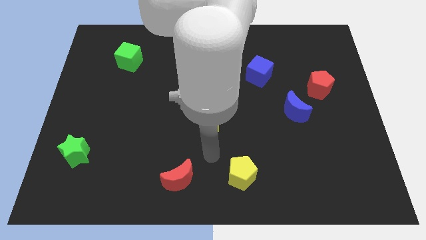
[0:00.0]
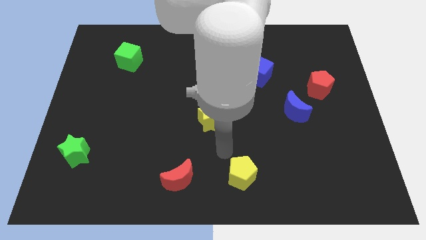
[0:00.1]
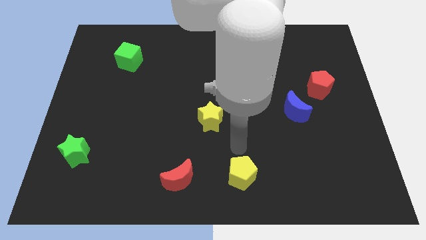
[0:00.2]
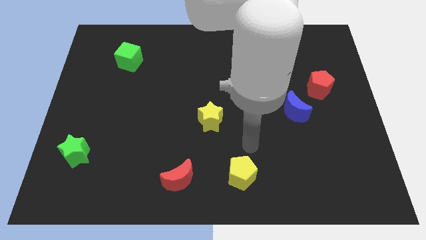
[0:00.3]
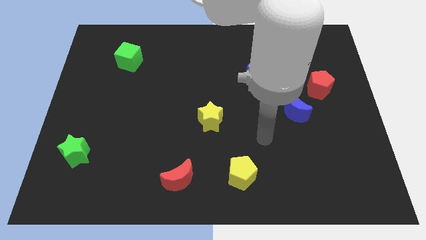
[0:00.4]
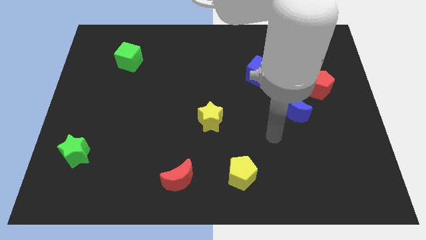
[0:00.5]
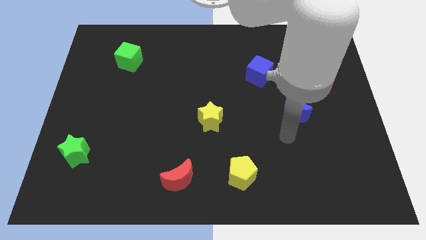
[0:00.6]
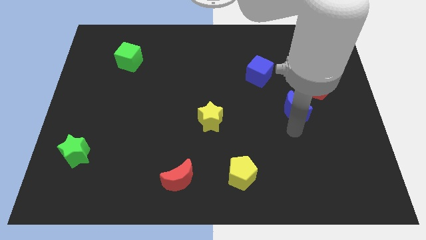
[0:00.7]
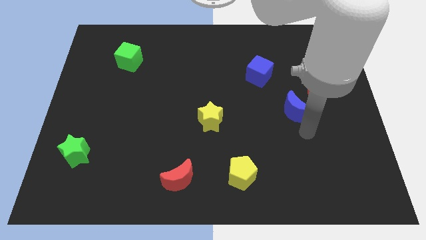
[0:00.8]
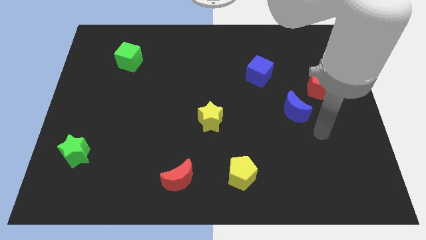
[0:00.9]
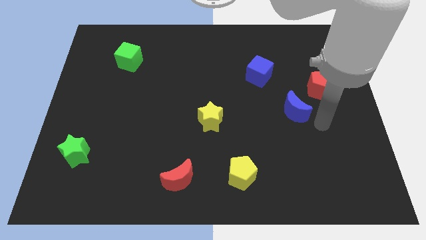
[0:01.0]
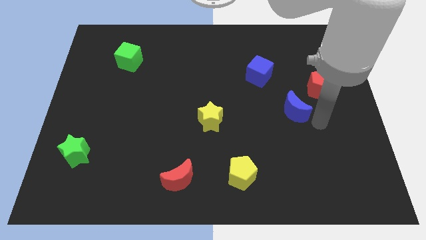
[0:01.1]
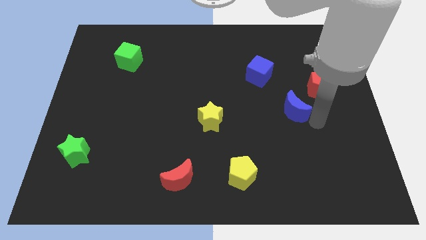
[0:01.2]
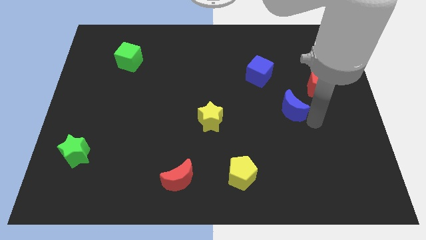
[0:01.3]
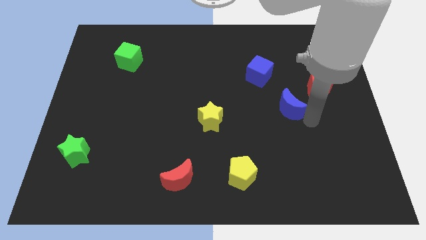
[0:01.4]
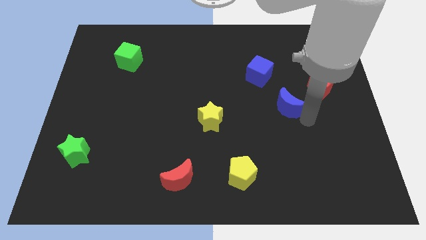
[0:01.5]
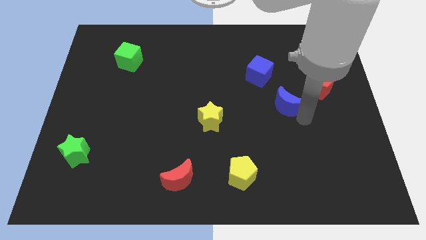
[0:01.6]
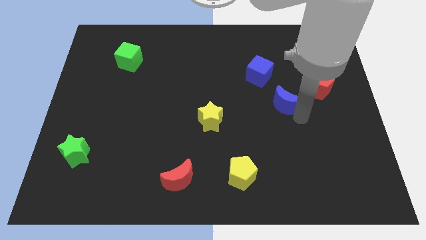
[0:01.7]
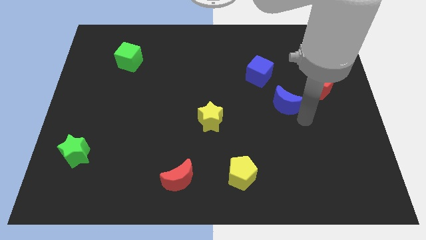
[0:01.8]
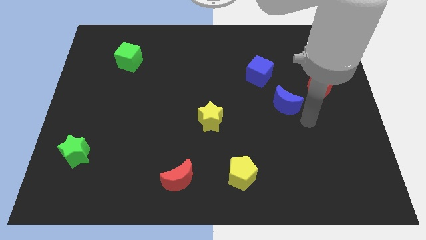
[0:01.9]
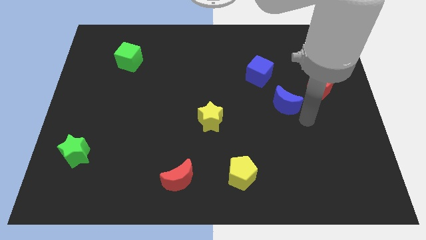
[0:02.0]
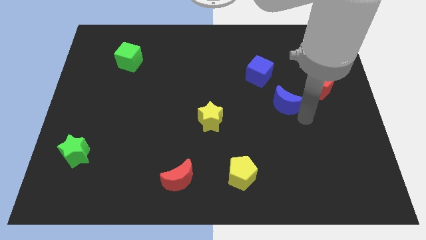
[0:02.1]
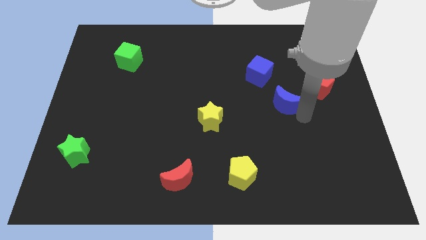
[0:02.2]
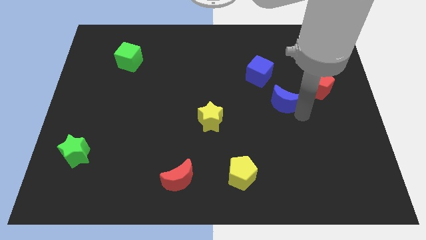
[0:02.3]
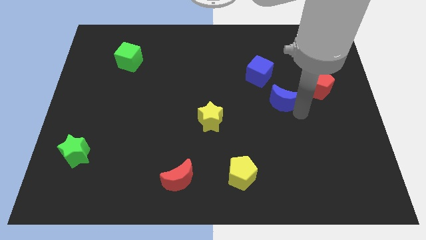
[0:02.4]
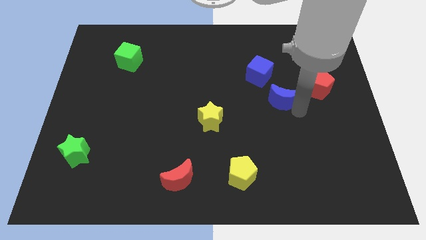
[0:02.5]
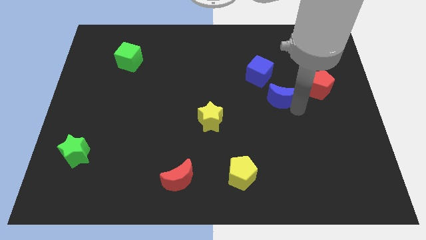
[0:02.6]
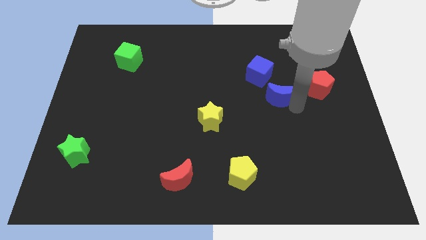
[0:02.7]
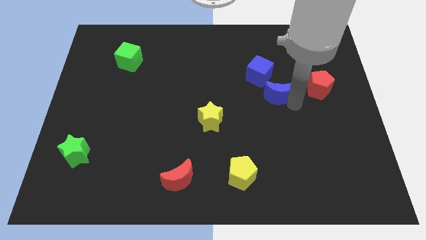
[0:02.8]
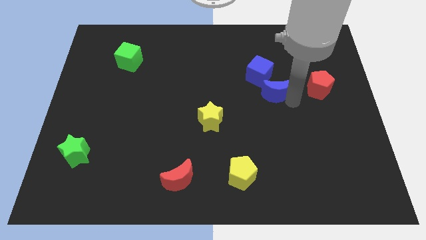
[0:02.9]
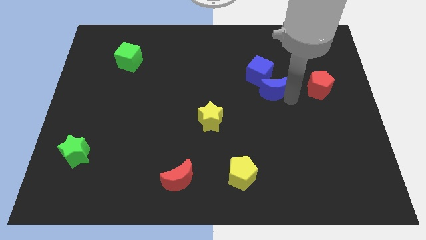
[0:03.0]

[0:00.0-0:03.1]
slightly slide the blue moon diagonally up and left

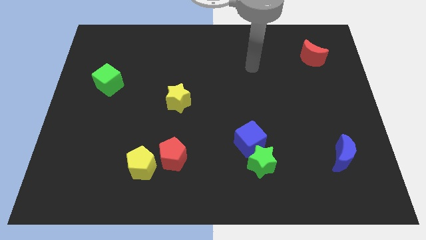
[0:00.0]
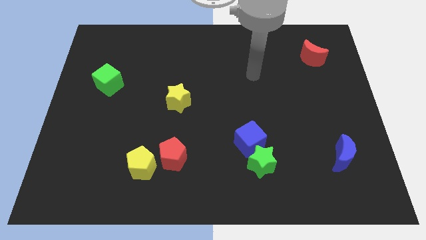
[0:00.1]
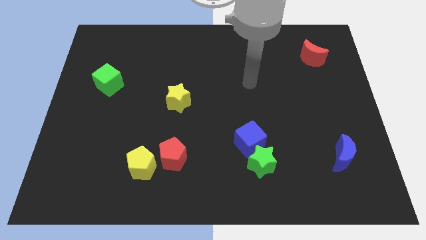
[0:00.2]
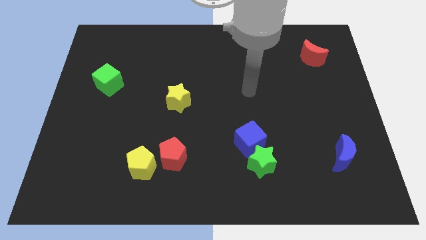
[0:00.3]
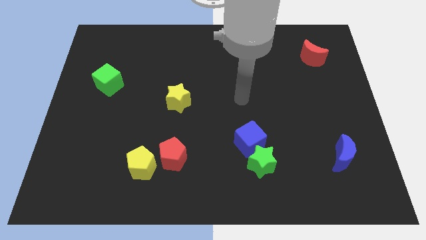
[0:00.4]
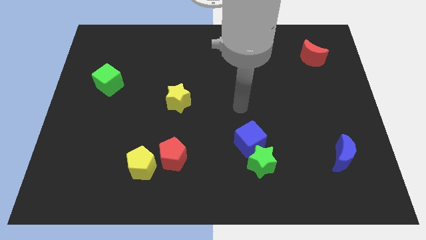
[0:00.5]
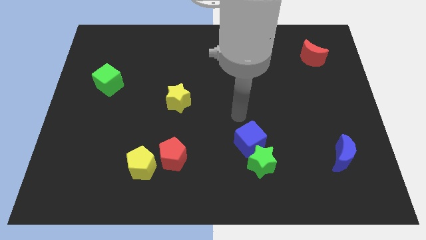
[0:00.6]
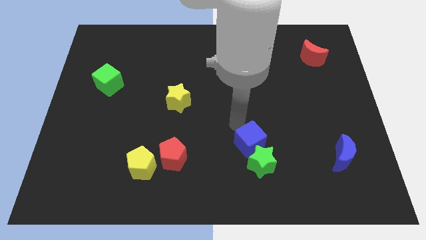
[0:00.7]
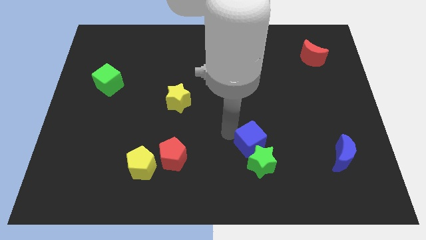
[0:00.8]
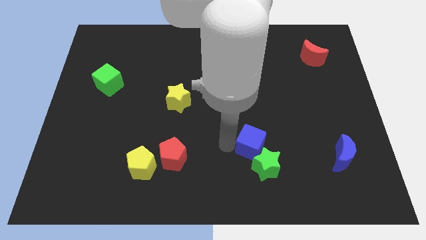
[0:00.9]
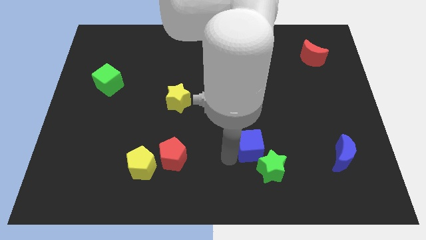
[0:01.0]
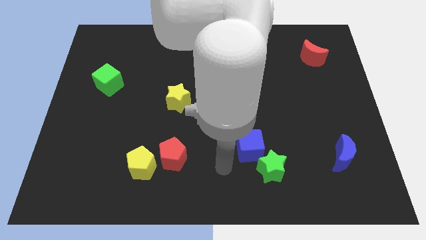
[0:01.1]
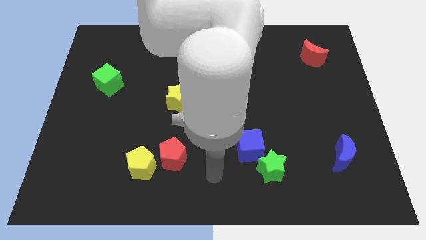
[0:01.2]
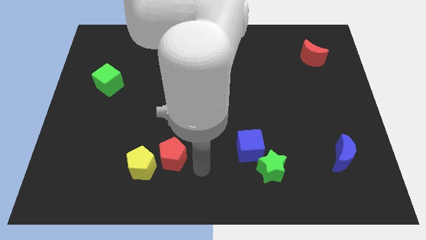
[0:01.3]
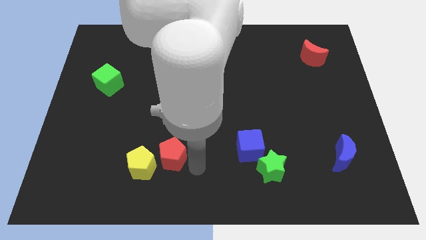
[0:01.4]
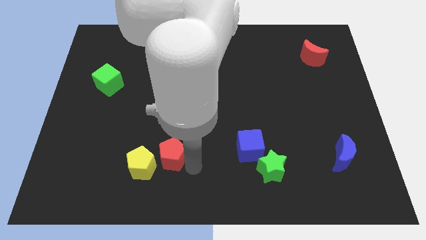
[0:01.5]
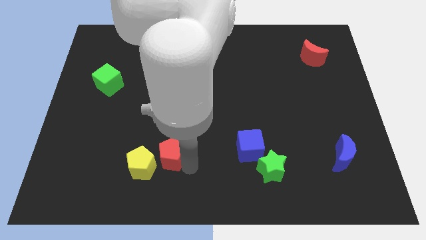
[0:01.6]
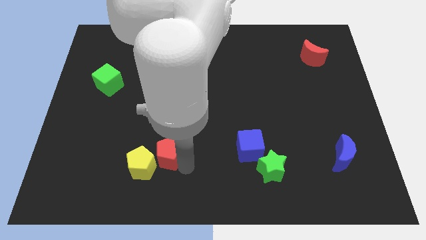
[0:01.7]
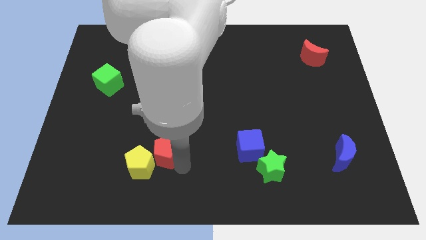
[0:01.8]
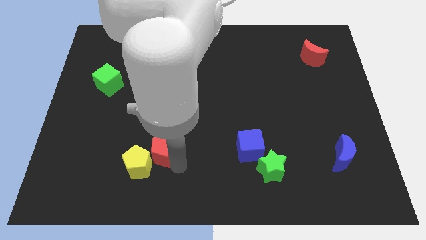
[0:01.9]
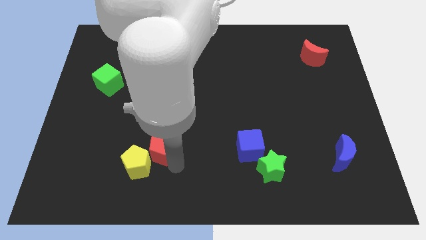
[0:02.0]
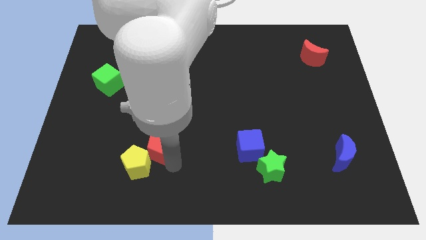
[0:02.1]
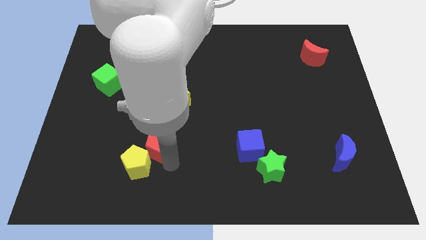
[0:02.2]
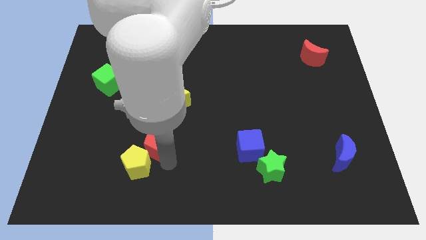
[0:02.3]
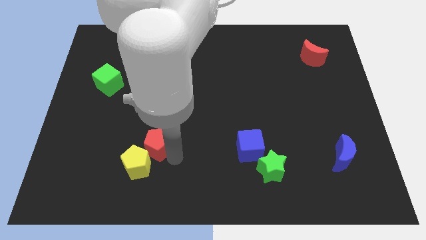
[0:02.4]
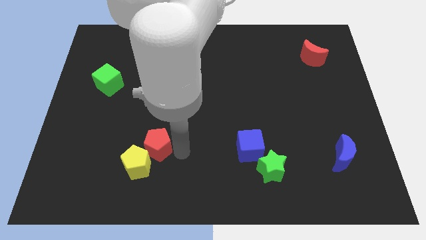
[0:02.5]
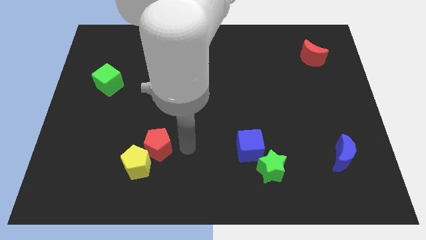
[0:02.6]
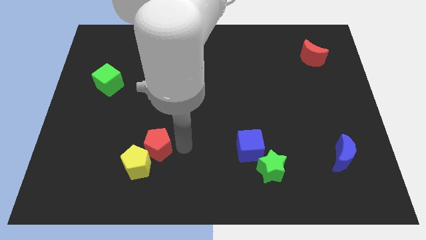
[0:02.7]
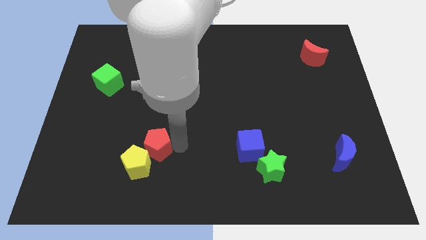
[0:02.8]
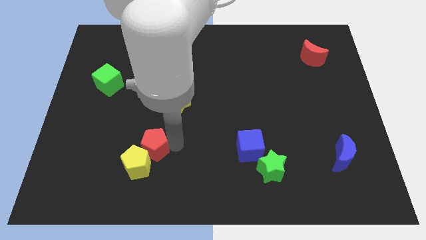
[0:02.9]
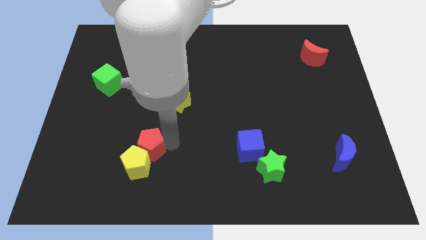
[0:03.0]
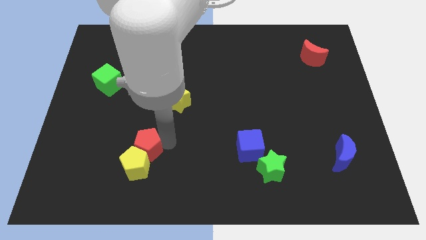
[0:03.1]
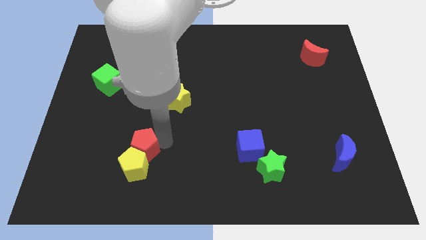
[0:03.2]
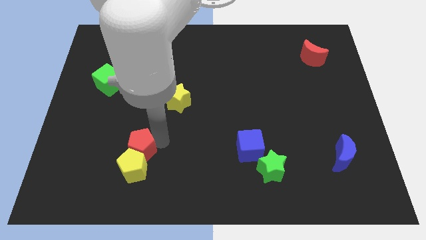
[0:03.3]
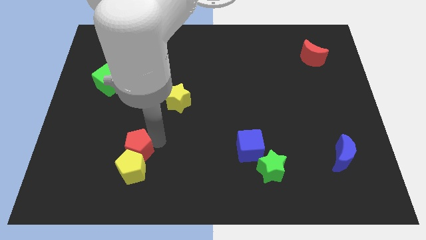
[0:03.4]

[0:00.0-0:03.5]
push the red pentagon a little left

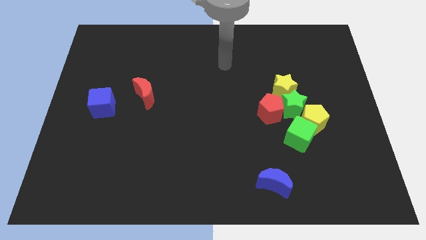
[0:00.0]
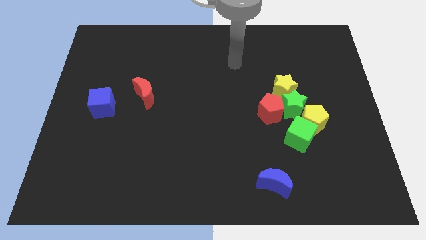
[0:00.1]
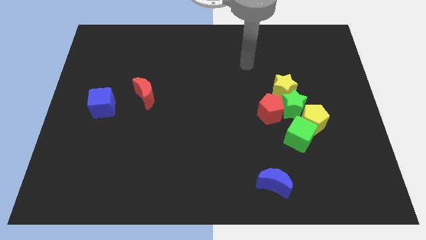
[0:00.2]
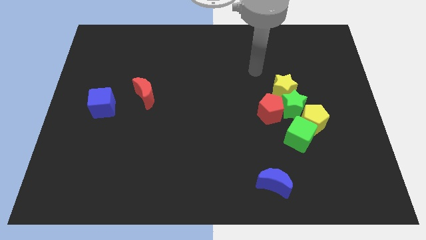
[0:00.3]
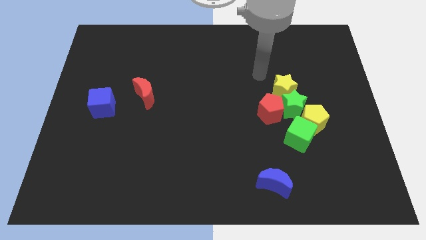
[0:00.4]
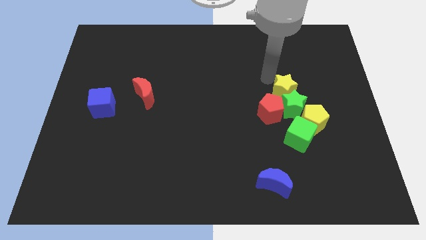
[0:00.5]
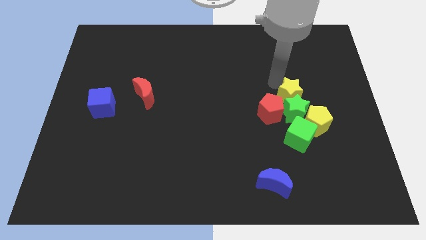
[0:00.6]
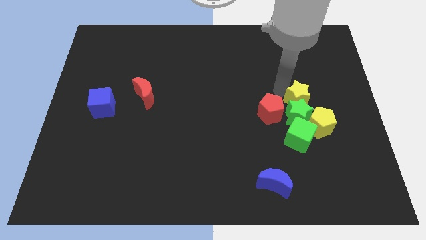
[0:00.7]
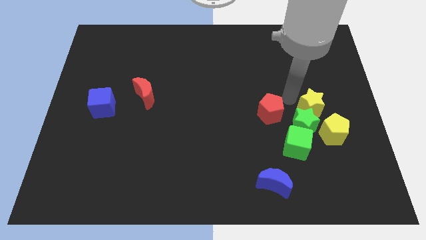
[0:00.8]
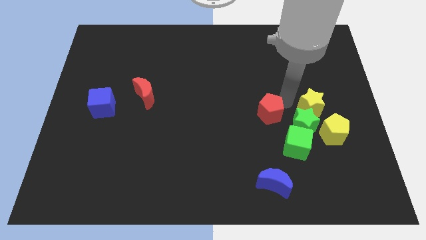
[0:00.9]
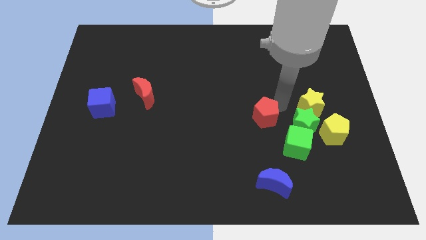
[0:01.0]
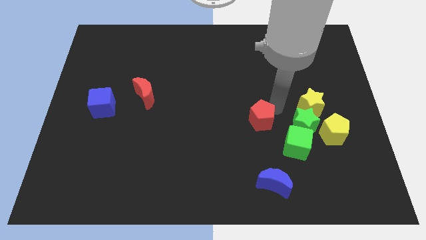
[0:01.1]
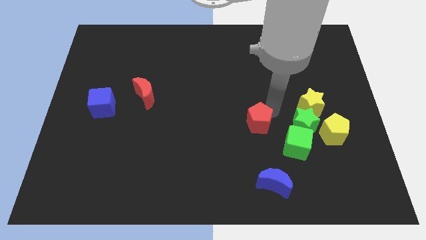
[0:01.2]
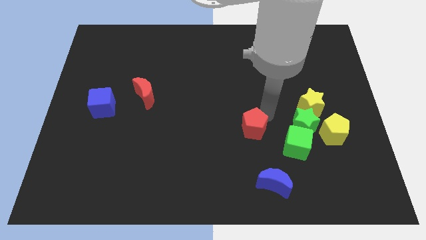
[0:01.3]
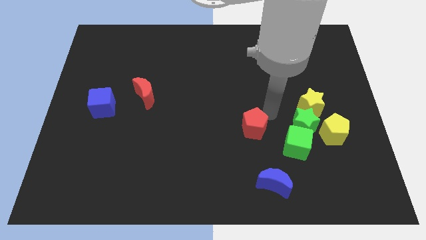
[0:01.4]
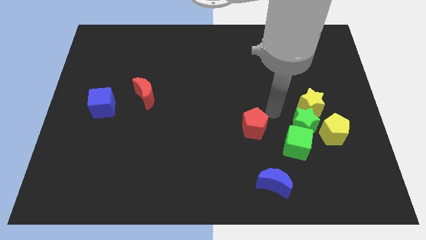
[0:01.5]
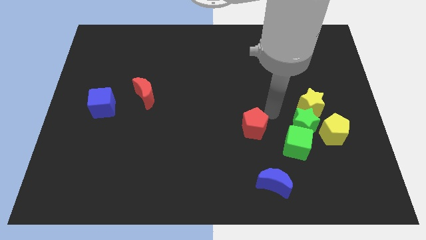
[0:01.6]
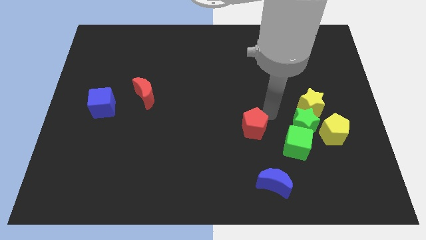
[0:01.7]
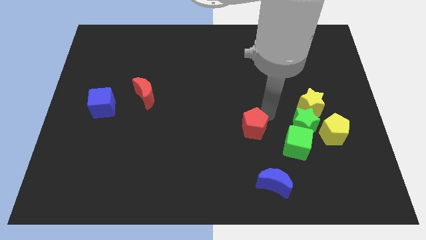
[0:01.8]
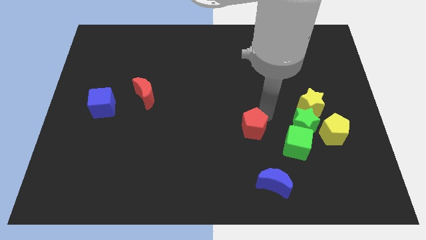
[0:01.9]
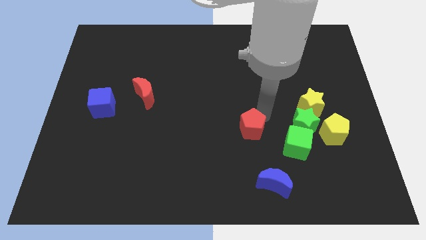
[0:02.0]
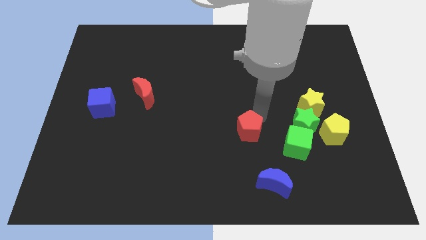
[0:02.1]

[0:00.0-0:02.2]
slide the red pentagon a little bit diagonally down and to the left
